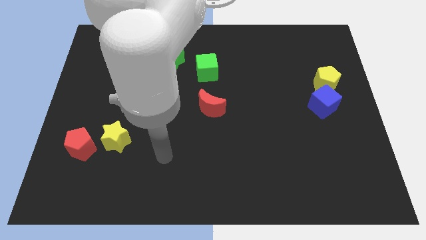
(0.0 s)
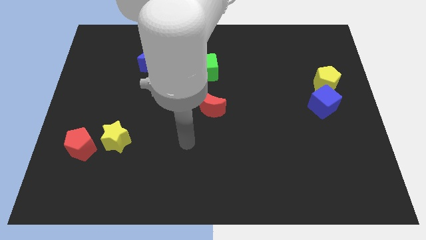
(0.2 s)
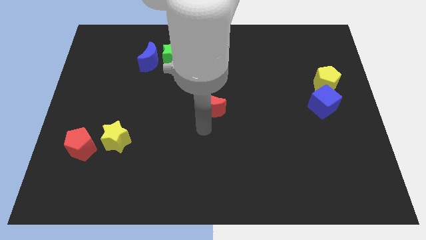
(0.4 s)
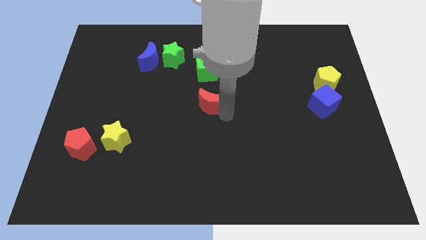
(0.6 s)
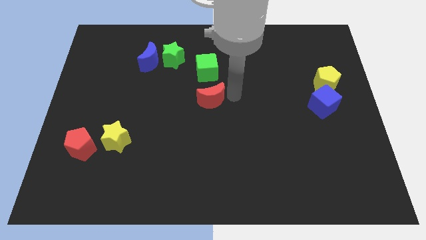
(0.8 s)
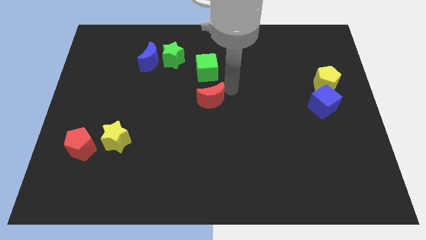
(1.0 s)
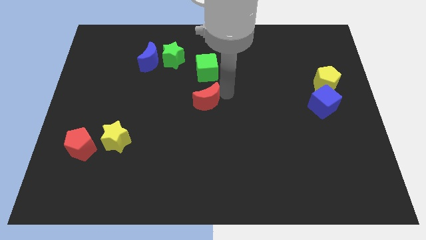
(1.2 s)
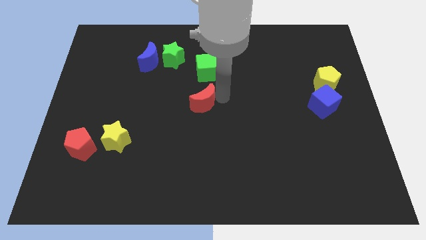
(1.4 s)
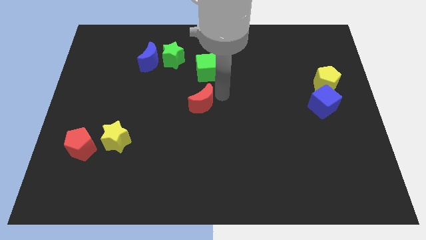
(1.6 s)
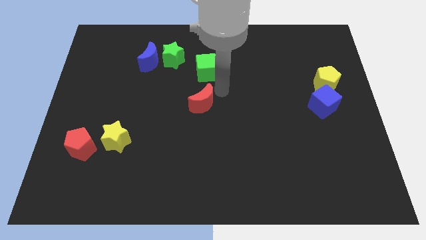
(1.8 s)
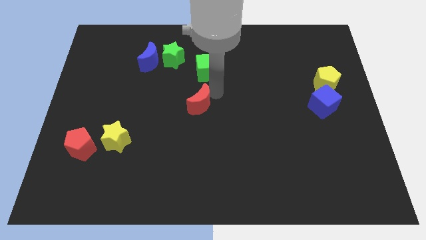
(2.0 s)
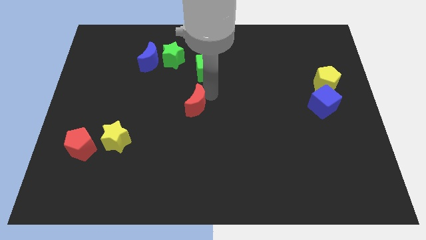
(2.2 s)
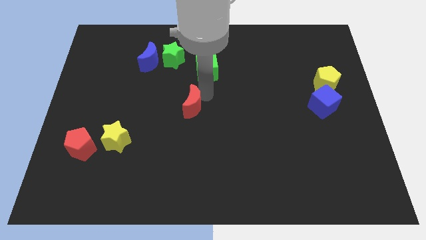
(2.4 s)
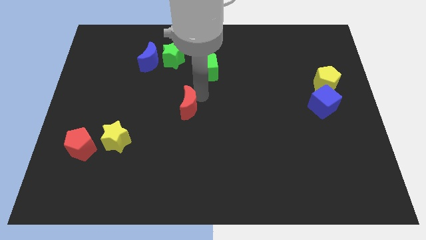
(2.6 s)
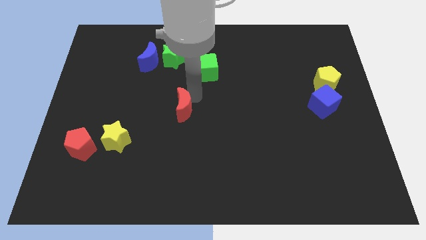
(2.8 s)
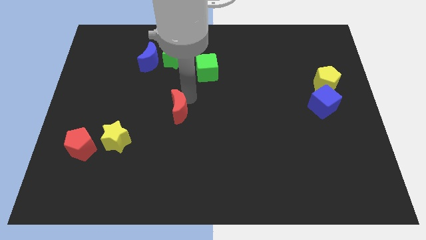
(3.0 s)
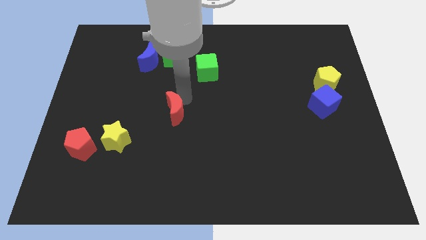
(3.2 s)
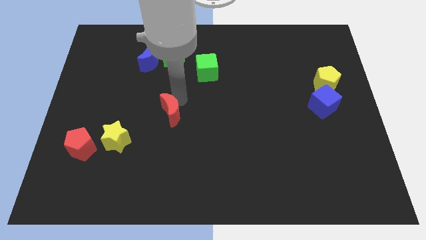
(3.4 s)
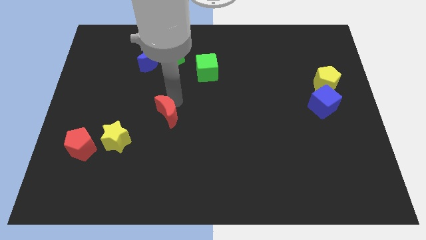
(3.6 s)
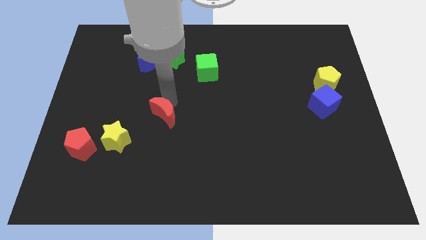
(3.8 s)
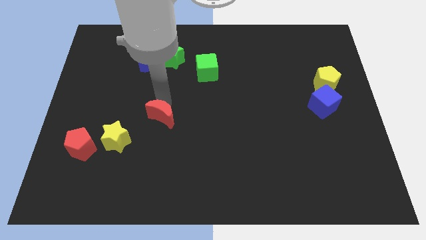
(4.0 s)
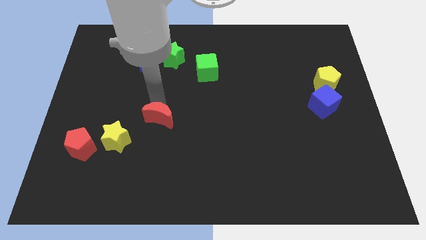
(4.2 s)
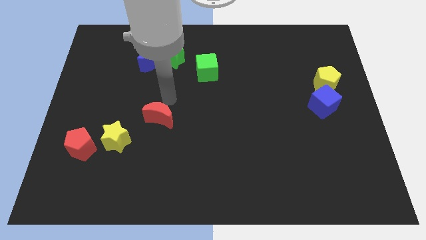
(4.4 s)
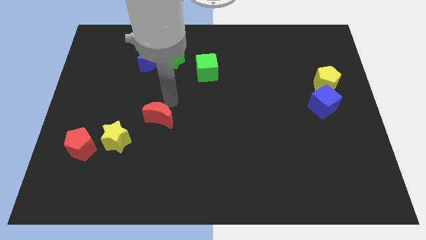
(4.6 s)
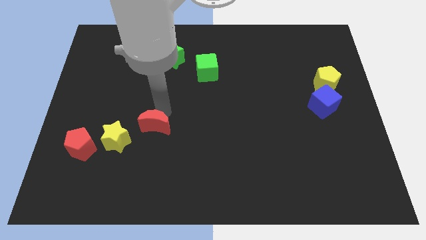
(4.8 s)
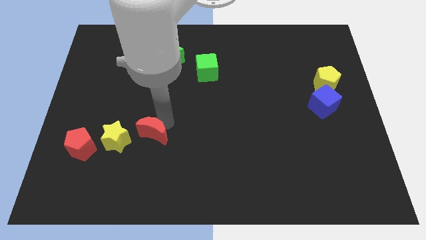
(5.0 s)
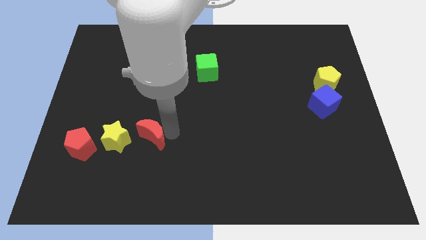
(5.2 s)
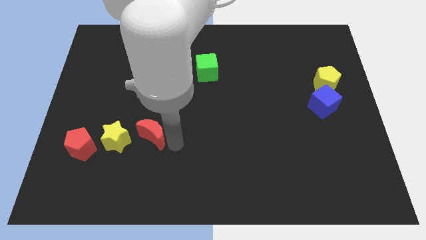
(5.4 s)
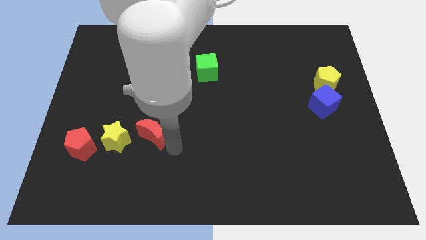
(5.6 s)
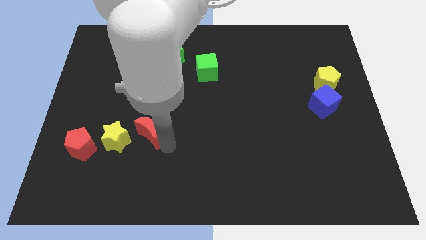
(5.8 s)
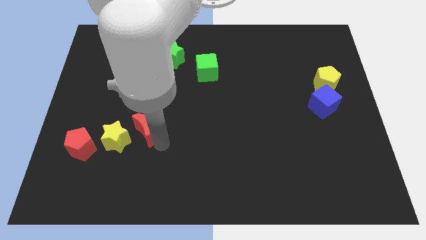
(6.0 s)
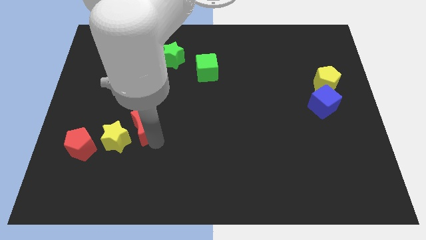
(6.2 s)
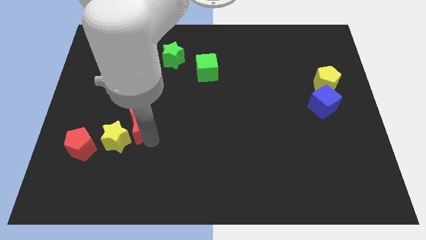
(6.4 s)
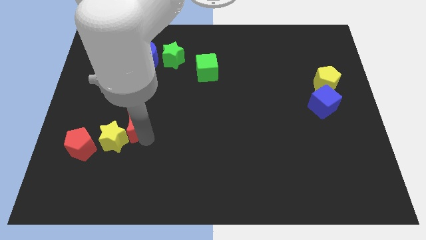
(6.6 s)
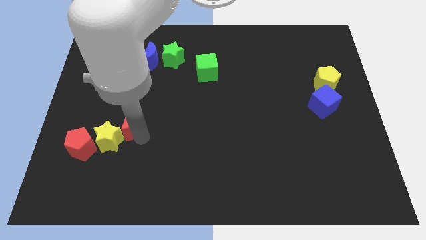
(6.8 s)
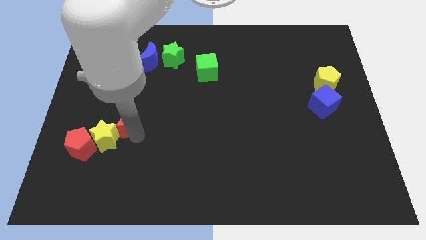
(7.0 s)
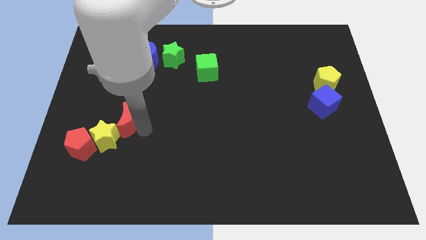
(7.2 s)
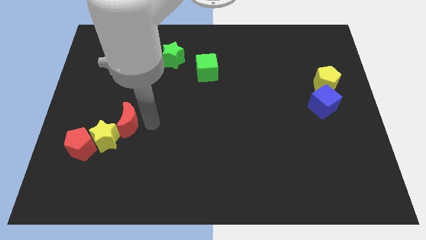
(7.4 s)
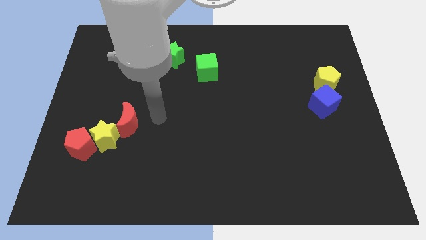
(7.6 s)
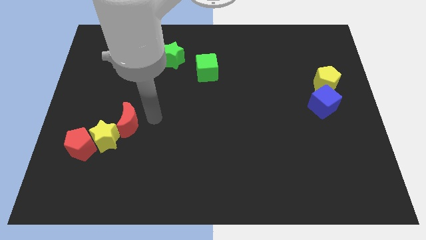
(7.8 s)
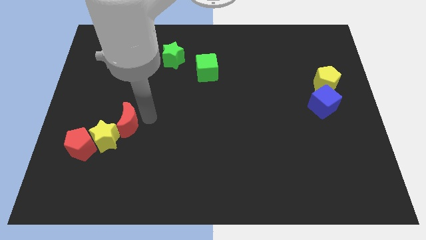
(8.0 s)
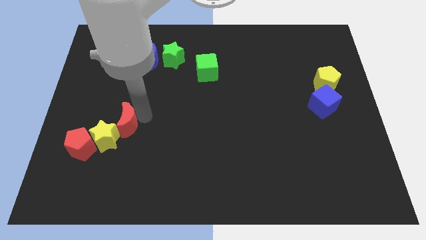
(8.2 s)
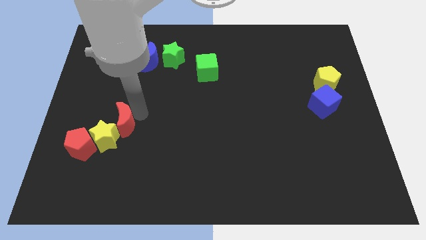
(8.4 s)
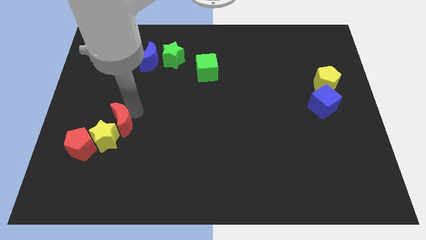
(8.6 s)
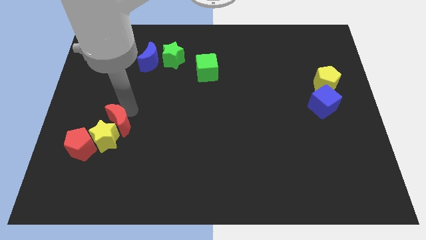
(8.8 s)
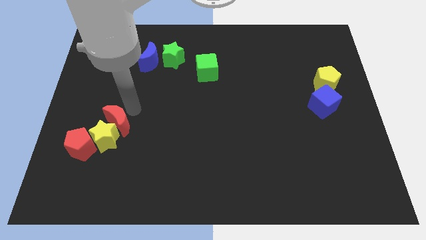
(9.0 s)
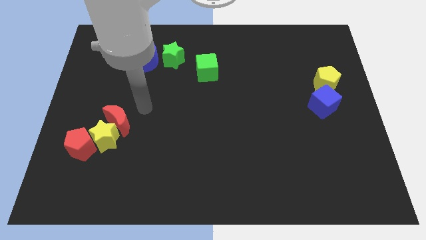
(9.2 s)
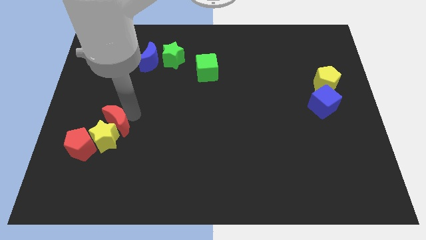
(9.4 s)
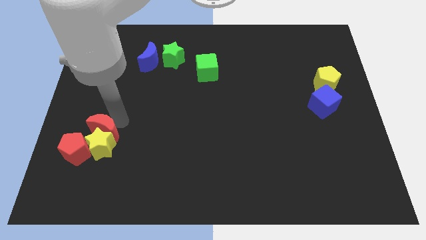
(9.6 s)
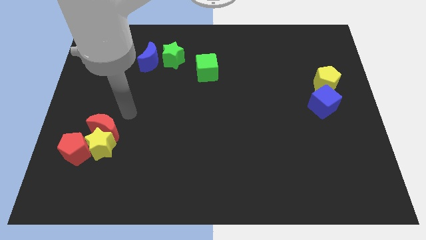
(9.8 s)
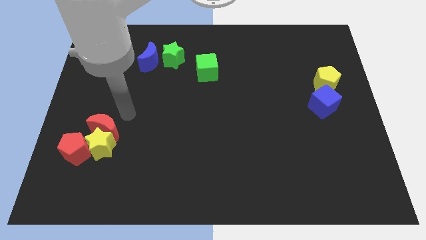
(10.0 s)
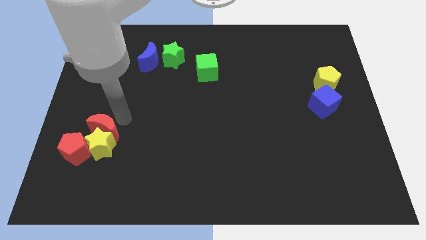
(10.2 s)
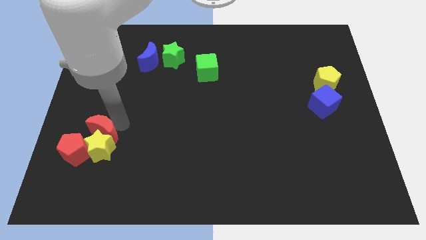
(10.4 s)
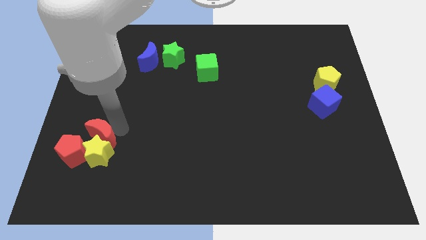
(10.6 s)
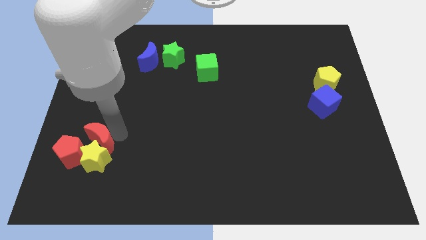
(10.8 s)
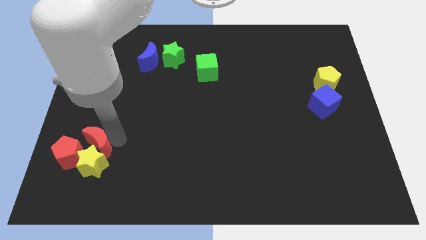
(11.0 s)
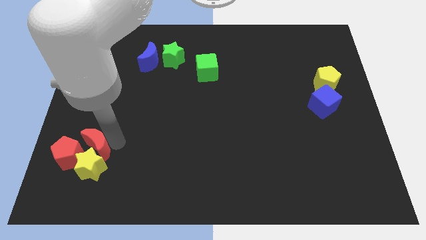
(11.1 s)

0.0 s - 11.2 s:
move the red moon close to the red pentagon

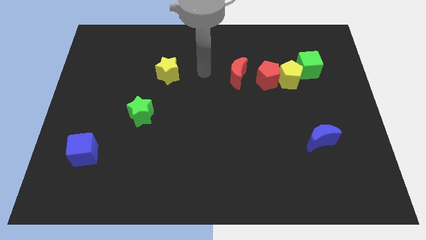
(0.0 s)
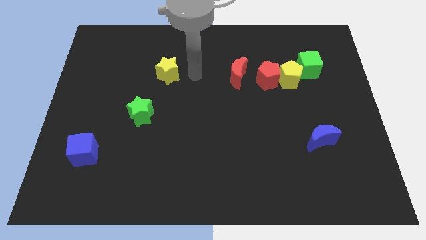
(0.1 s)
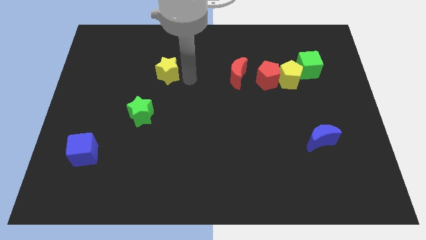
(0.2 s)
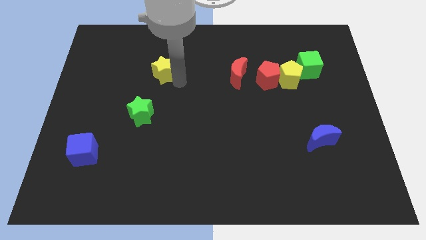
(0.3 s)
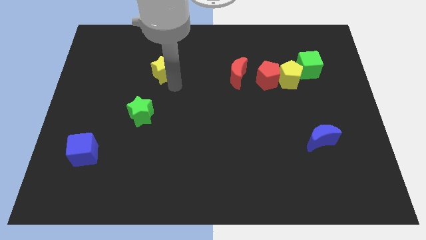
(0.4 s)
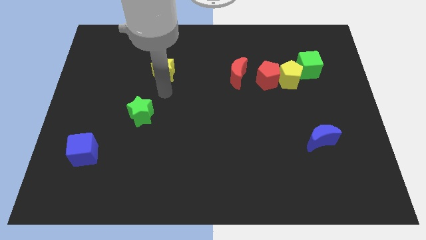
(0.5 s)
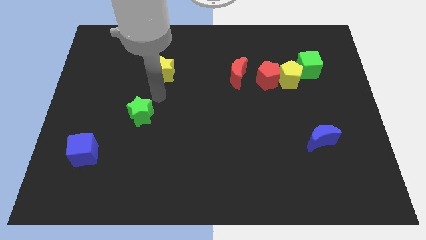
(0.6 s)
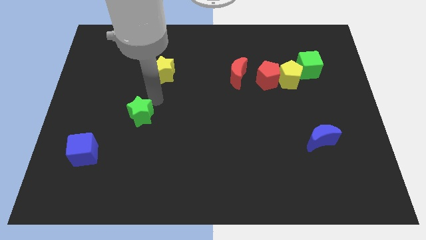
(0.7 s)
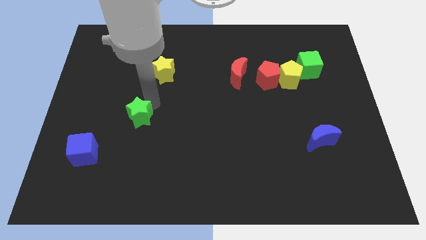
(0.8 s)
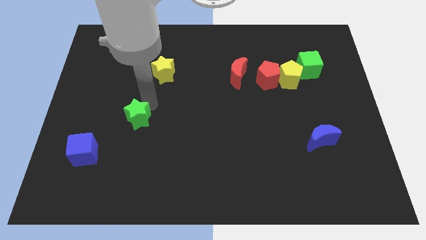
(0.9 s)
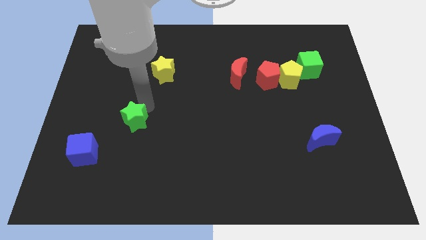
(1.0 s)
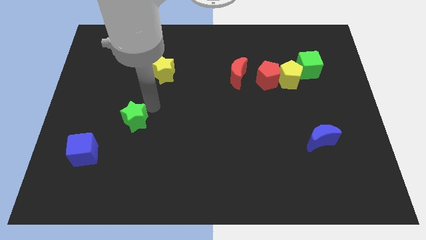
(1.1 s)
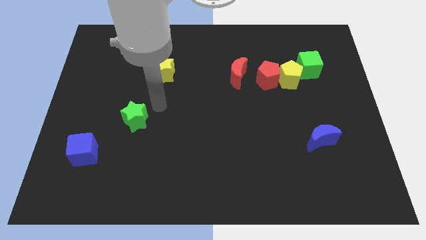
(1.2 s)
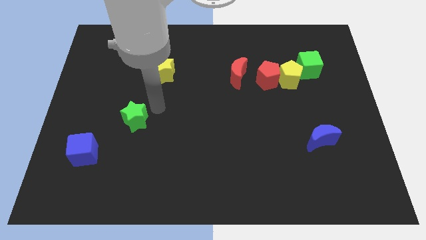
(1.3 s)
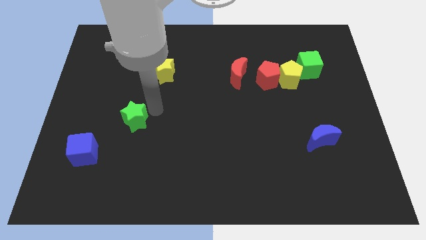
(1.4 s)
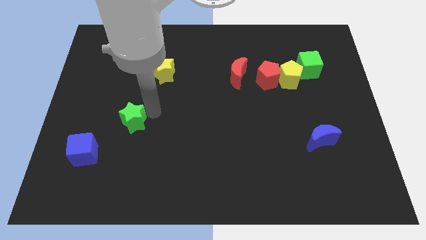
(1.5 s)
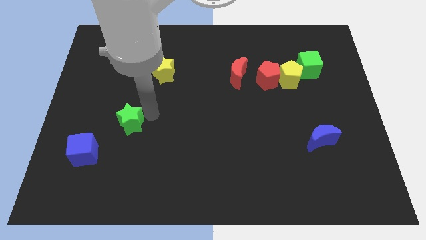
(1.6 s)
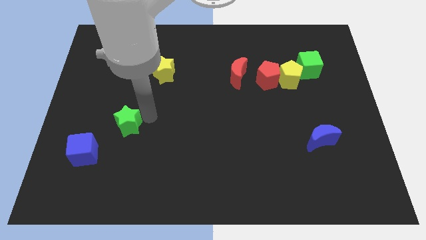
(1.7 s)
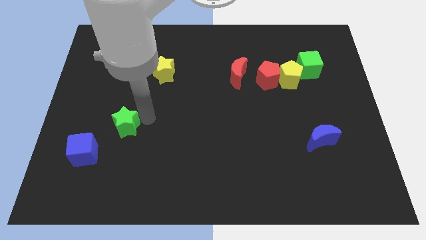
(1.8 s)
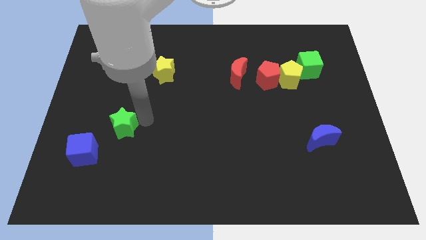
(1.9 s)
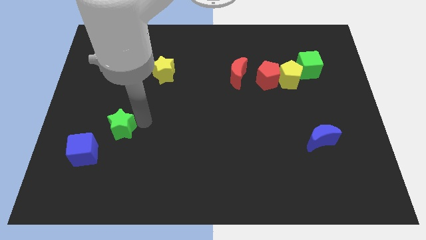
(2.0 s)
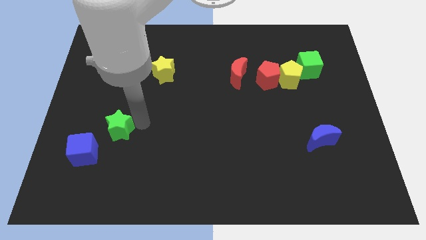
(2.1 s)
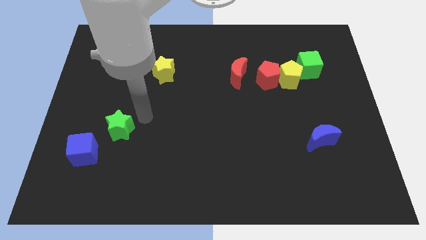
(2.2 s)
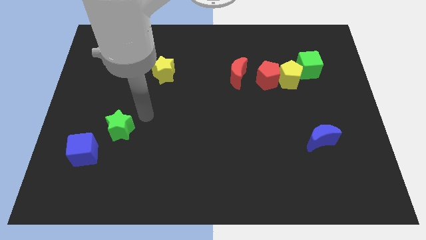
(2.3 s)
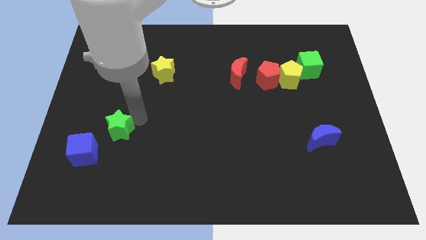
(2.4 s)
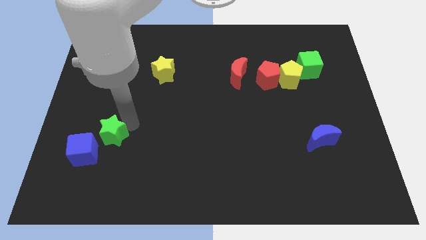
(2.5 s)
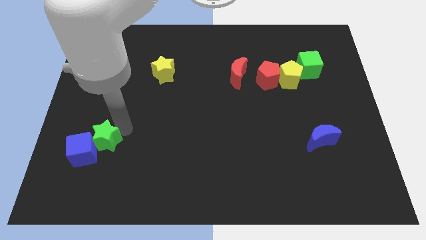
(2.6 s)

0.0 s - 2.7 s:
move the green star towards the blue cube
